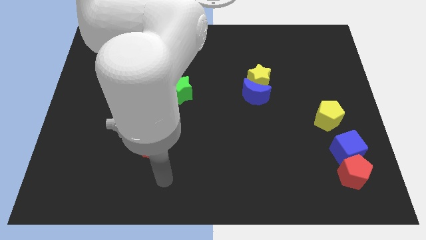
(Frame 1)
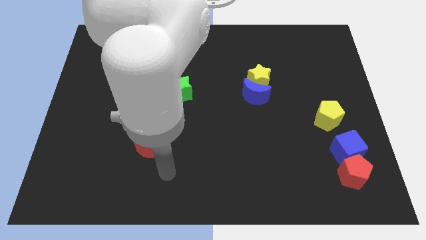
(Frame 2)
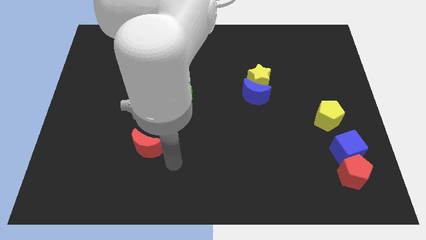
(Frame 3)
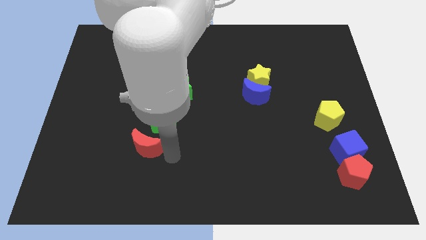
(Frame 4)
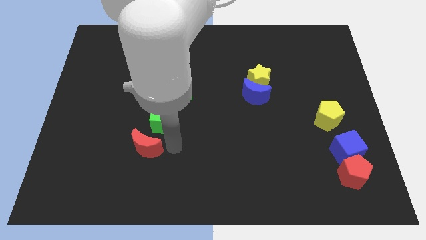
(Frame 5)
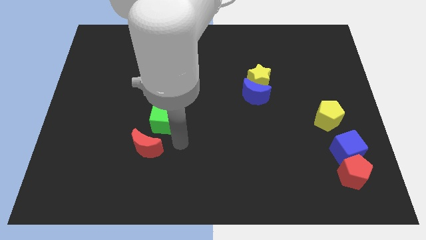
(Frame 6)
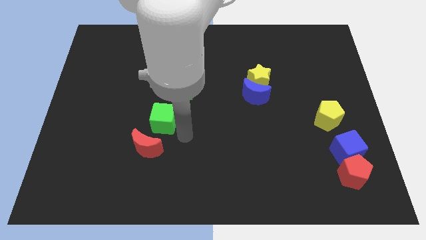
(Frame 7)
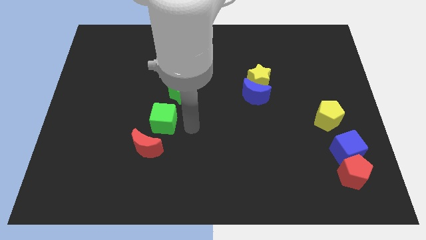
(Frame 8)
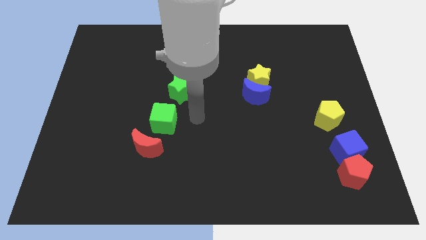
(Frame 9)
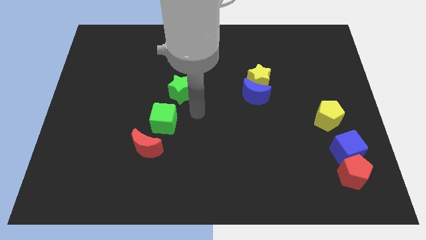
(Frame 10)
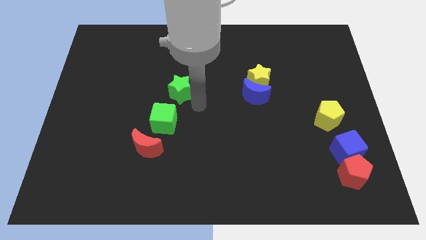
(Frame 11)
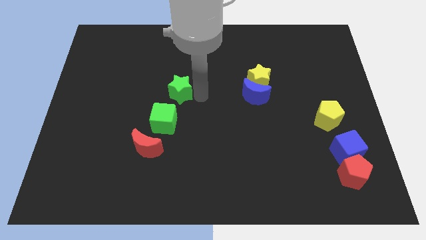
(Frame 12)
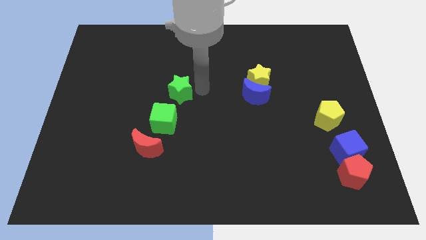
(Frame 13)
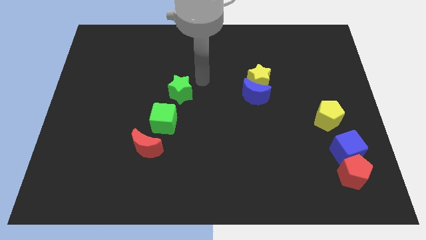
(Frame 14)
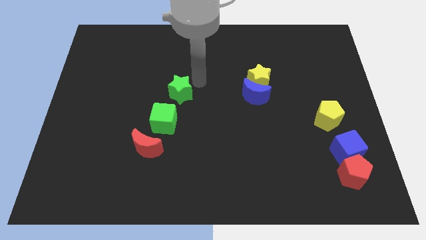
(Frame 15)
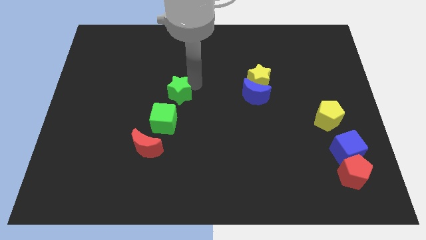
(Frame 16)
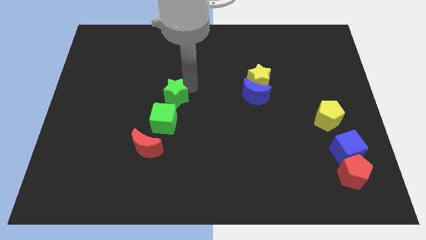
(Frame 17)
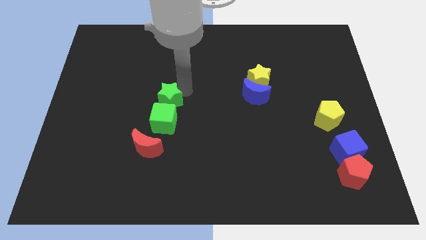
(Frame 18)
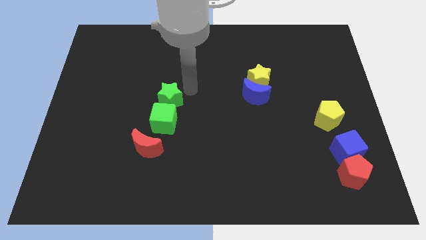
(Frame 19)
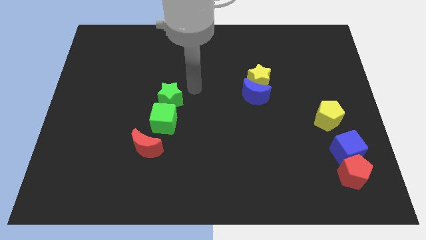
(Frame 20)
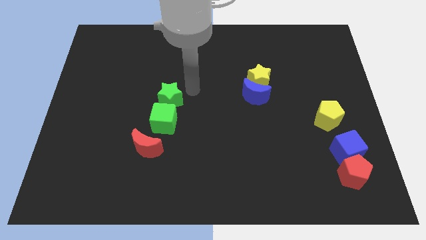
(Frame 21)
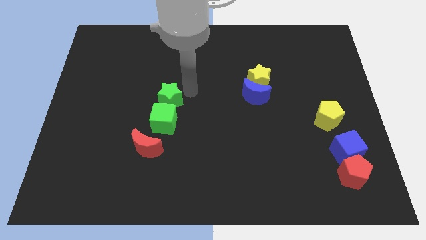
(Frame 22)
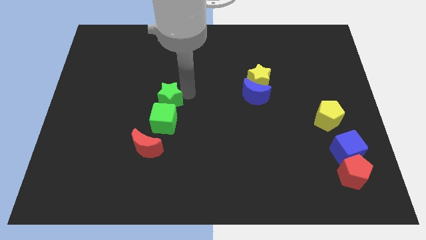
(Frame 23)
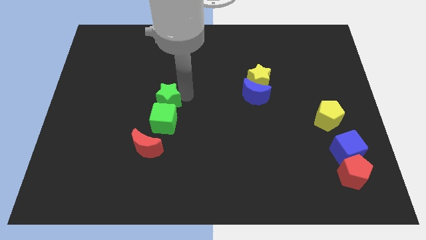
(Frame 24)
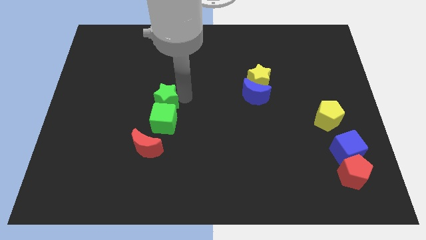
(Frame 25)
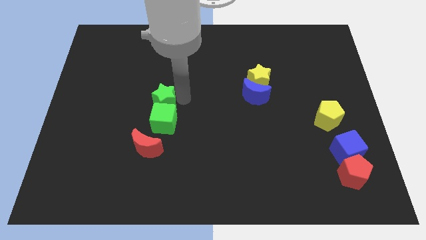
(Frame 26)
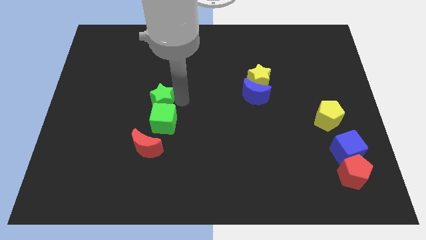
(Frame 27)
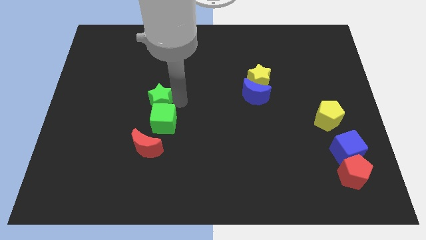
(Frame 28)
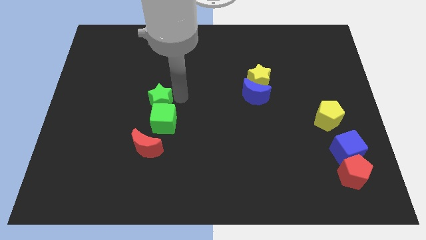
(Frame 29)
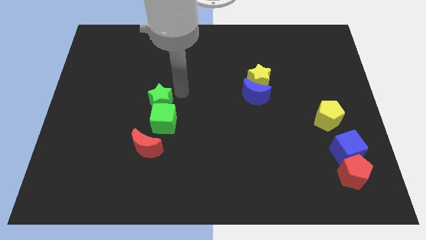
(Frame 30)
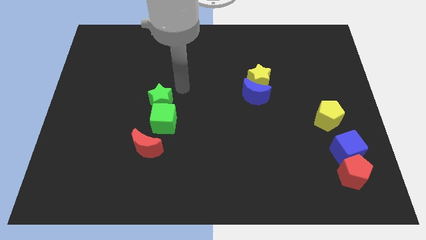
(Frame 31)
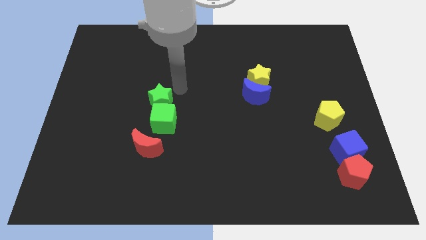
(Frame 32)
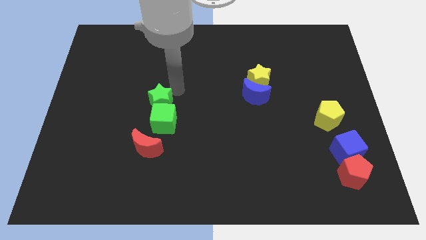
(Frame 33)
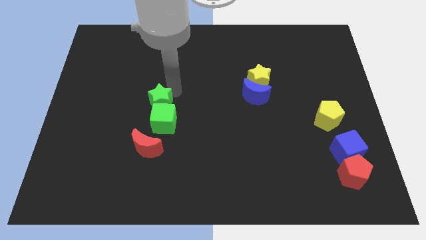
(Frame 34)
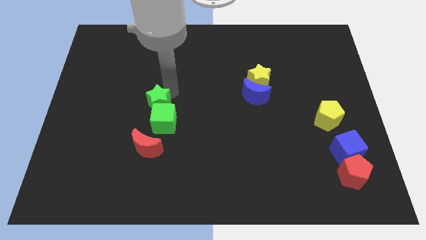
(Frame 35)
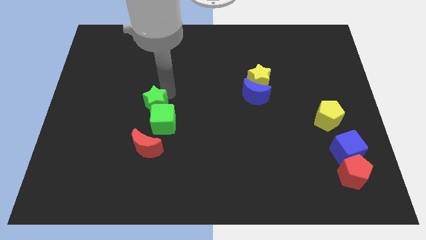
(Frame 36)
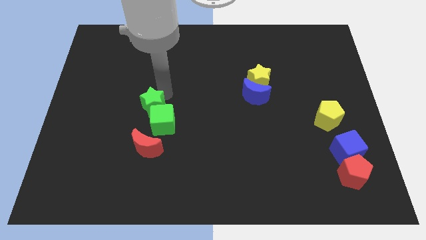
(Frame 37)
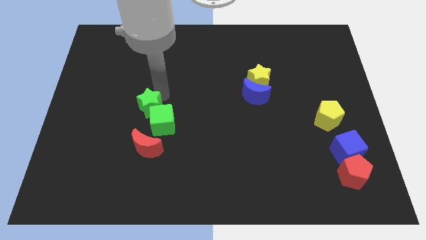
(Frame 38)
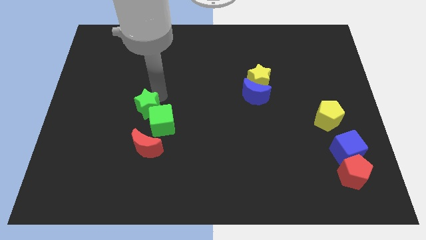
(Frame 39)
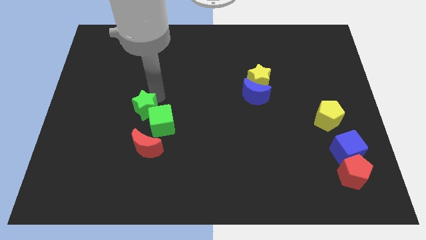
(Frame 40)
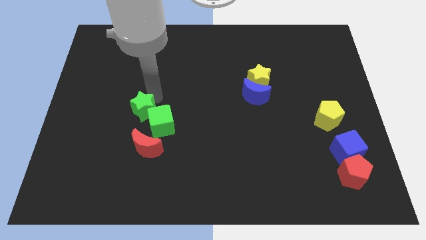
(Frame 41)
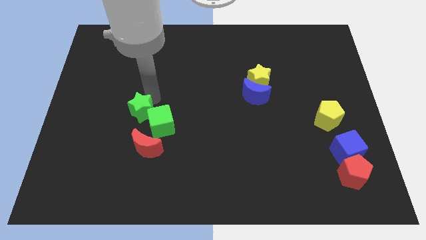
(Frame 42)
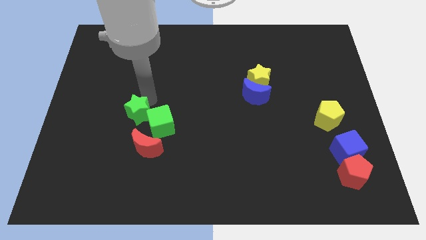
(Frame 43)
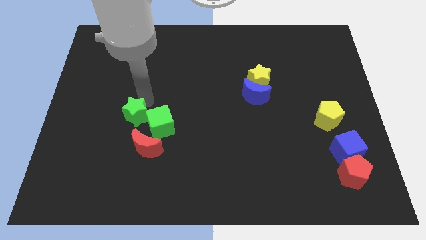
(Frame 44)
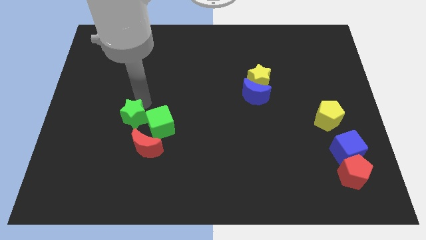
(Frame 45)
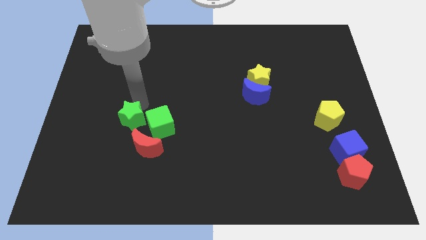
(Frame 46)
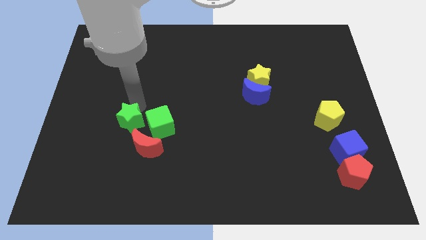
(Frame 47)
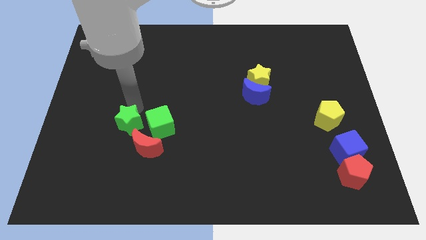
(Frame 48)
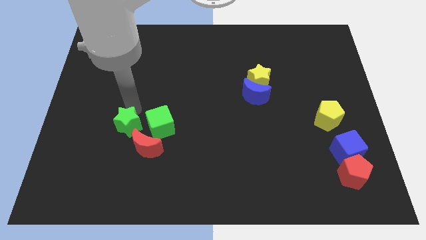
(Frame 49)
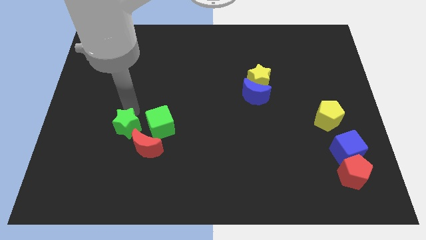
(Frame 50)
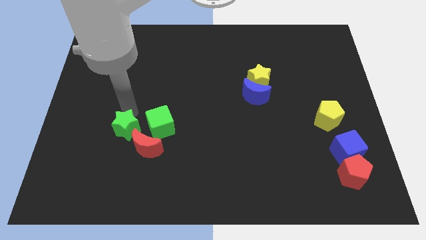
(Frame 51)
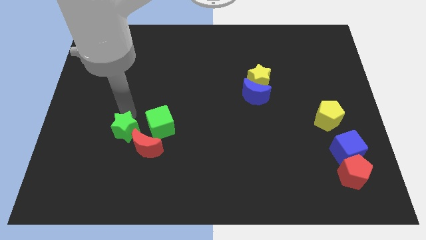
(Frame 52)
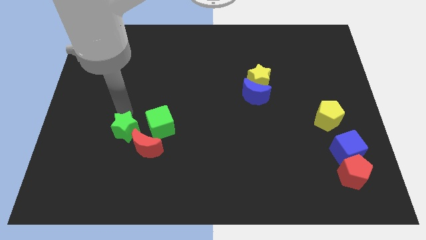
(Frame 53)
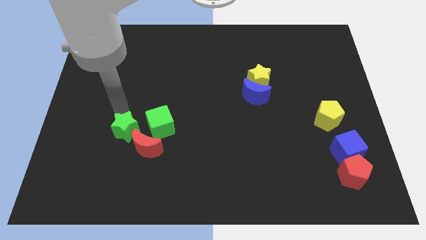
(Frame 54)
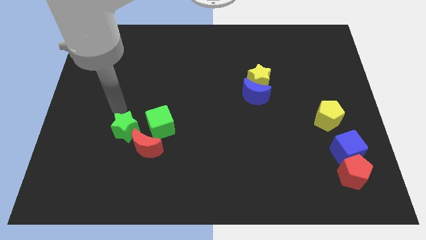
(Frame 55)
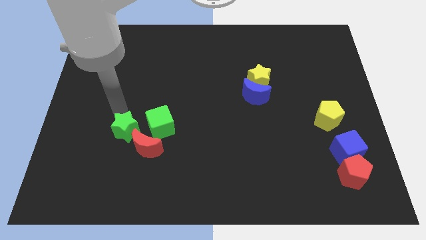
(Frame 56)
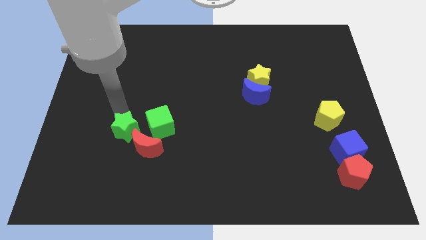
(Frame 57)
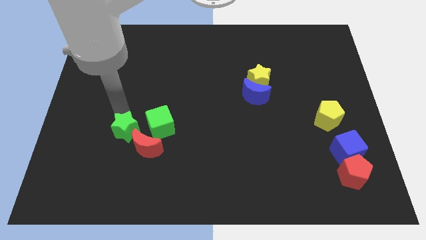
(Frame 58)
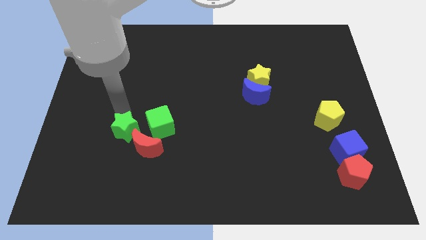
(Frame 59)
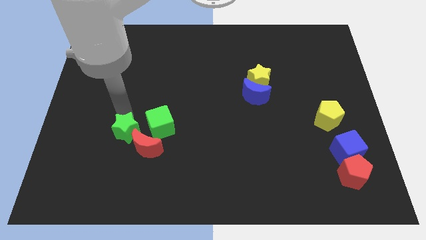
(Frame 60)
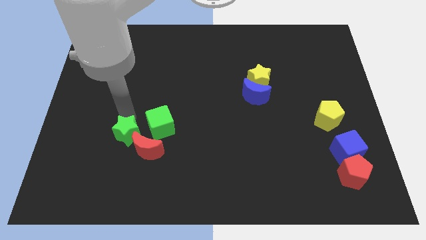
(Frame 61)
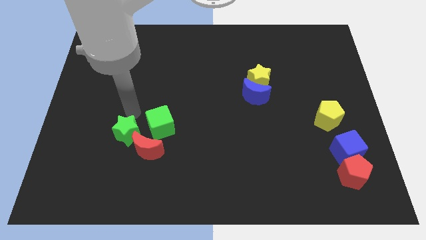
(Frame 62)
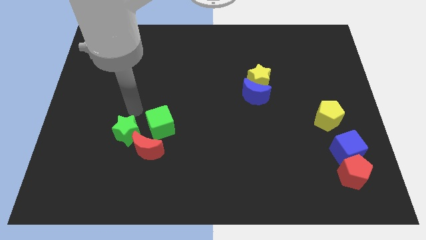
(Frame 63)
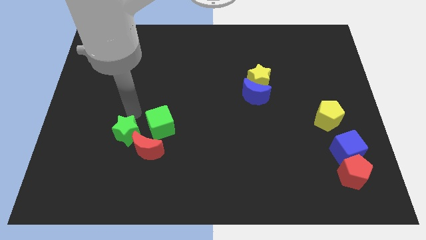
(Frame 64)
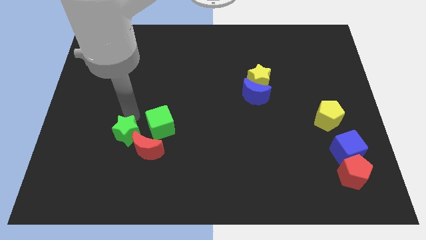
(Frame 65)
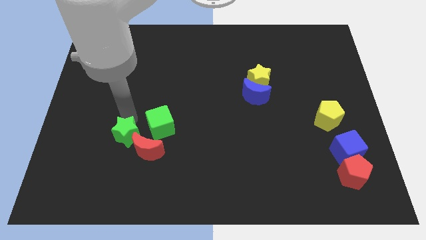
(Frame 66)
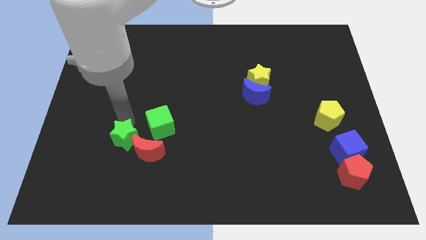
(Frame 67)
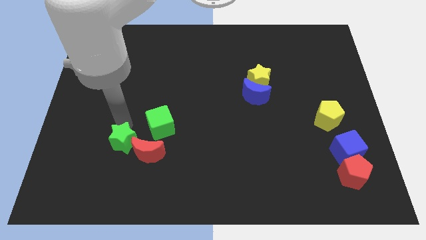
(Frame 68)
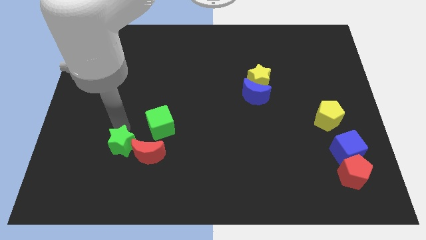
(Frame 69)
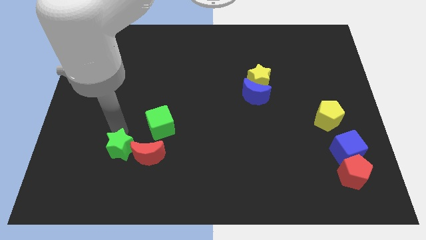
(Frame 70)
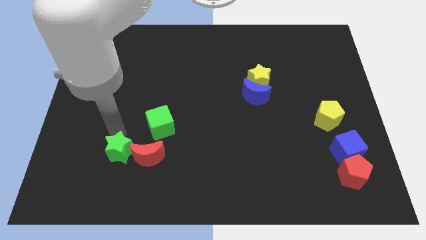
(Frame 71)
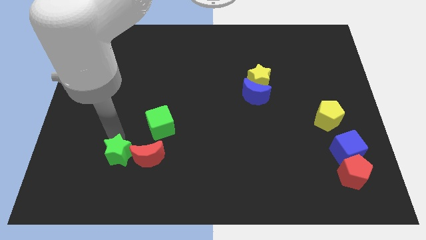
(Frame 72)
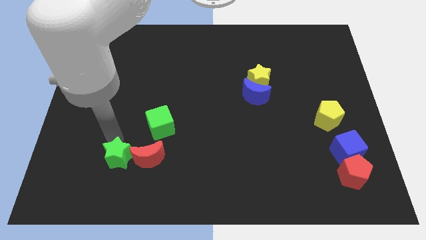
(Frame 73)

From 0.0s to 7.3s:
slide the green star to the bottom left side of the red moon
